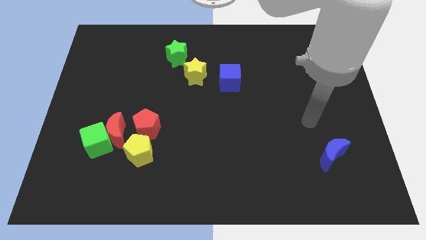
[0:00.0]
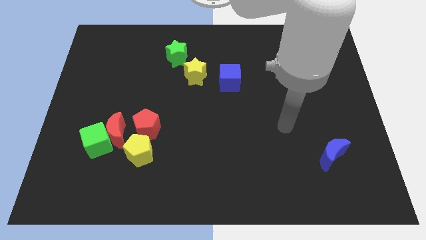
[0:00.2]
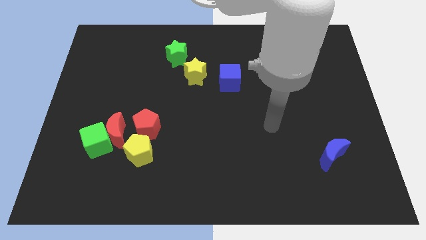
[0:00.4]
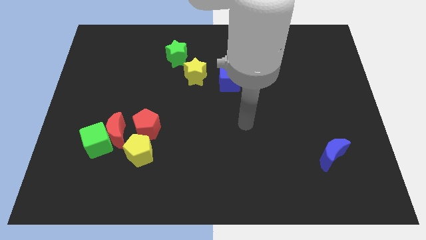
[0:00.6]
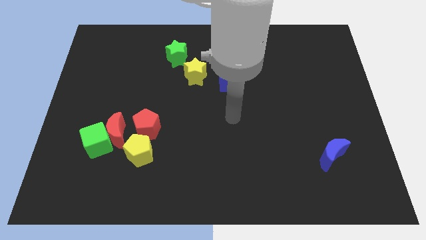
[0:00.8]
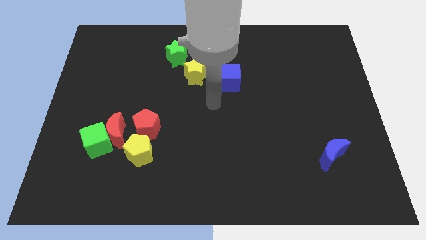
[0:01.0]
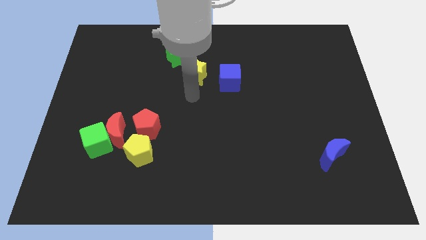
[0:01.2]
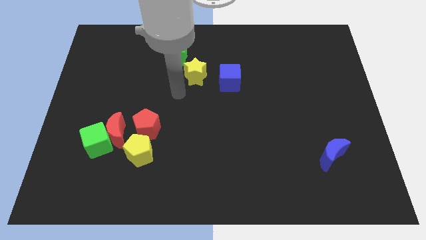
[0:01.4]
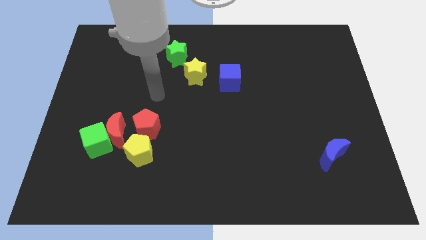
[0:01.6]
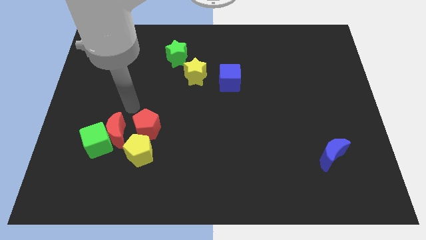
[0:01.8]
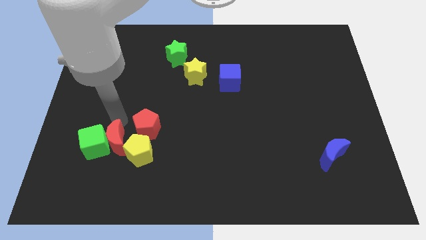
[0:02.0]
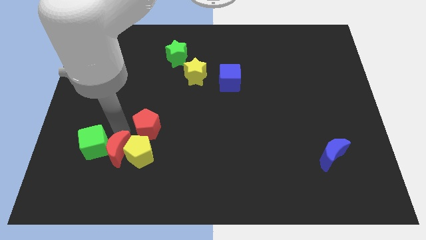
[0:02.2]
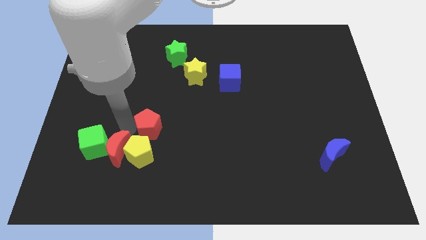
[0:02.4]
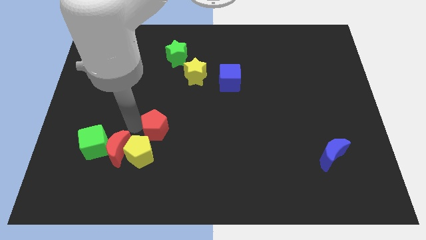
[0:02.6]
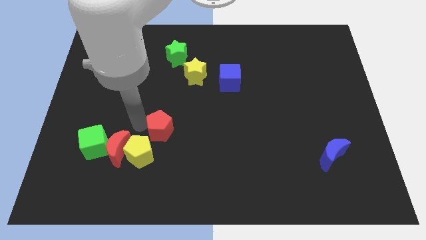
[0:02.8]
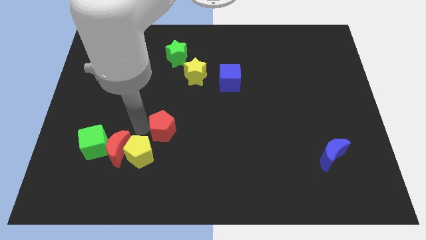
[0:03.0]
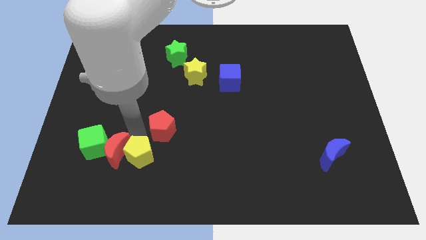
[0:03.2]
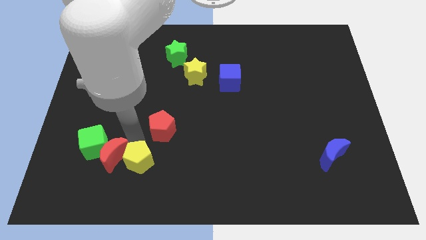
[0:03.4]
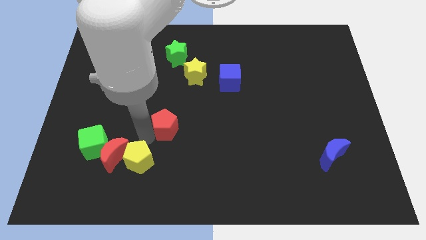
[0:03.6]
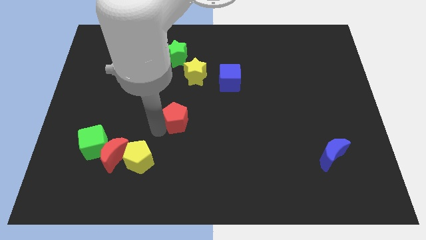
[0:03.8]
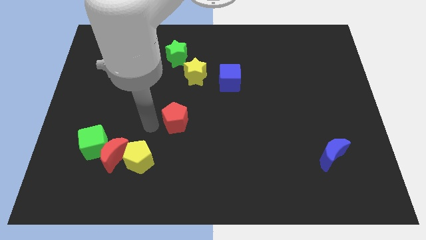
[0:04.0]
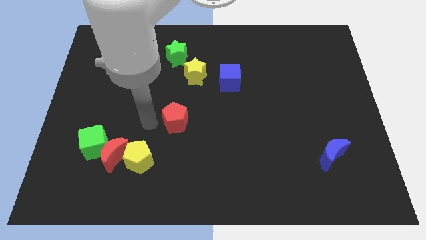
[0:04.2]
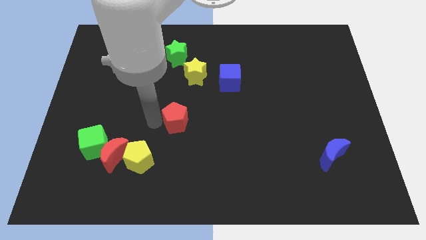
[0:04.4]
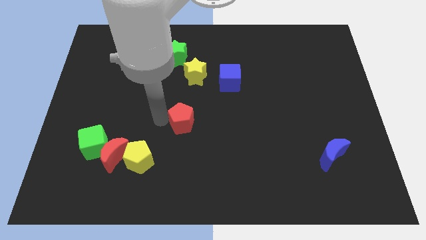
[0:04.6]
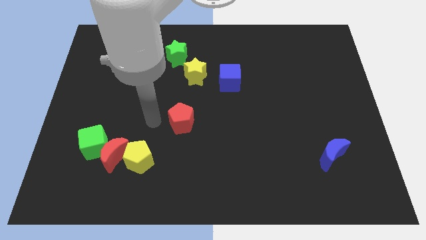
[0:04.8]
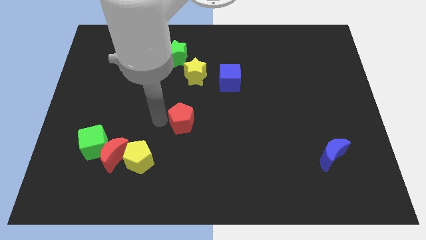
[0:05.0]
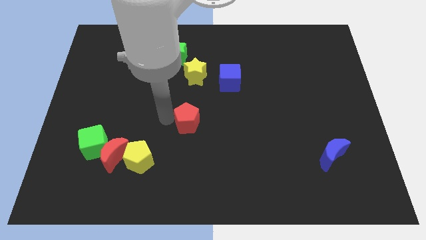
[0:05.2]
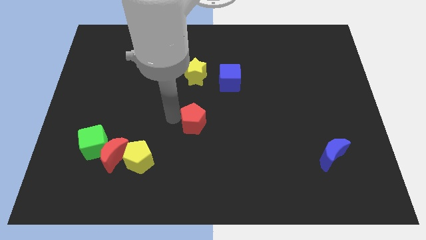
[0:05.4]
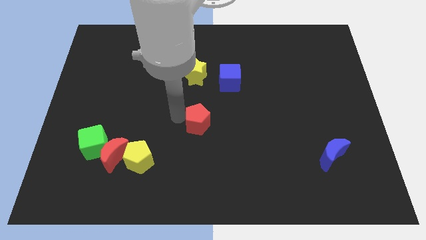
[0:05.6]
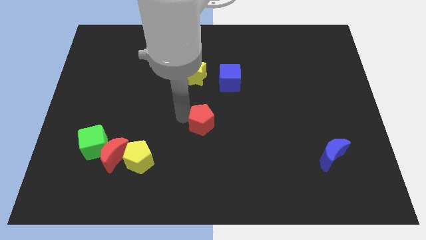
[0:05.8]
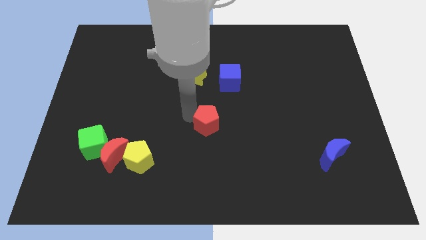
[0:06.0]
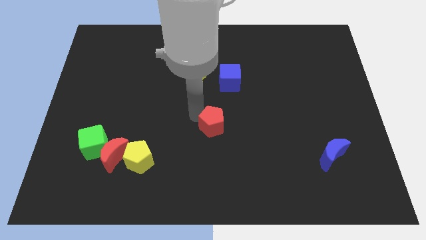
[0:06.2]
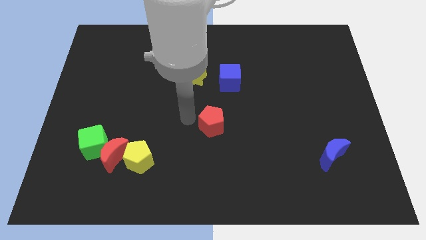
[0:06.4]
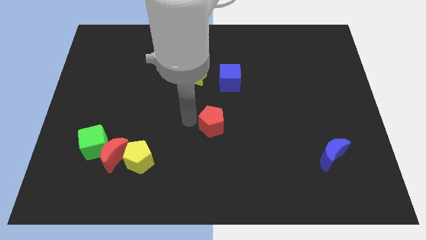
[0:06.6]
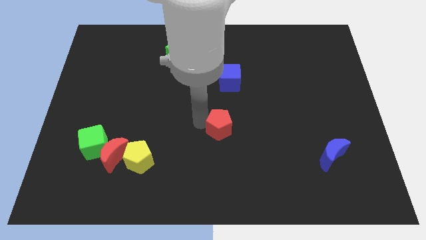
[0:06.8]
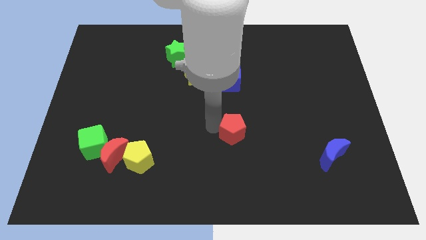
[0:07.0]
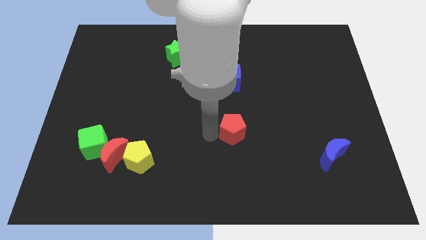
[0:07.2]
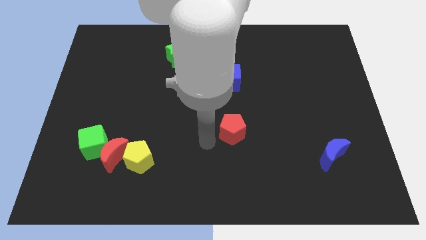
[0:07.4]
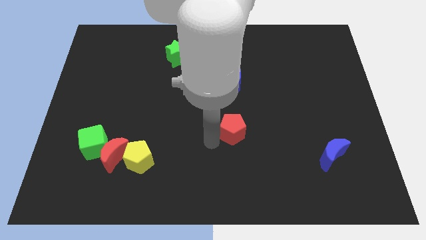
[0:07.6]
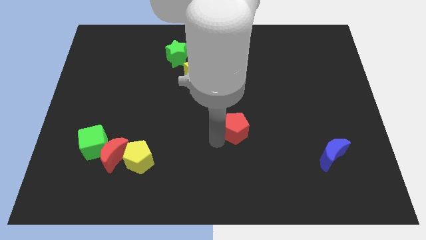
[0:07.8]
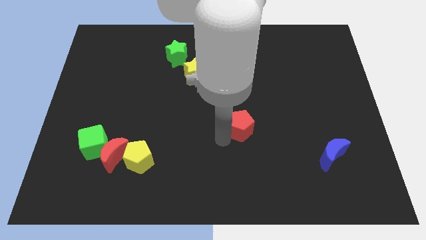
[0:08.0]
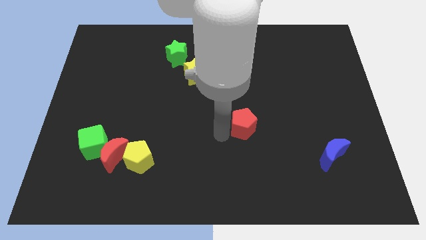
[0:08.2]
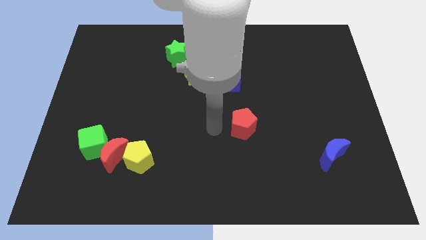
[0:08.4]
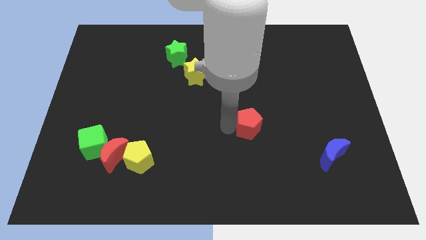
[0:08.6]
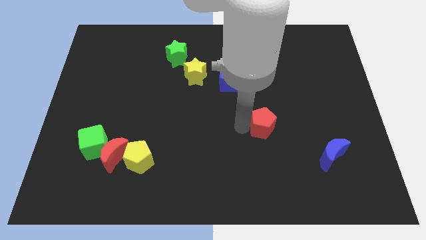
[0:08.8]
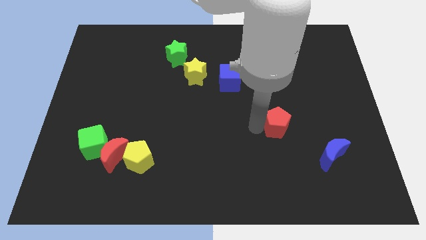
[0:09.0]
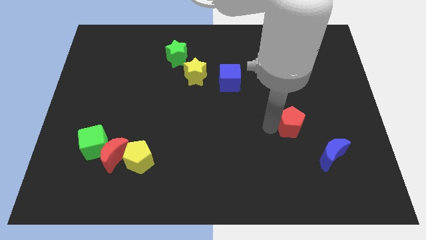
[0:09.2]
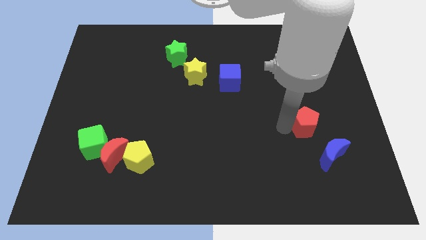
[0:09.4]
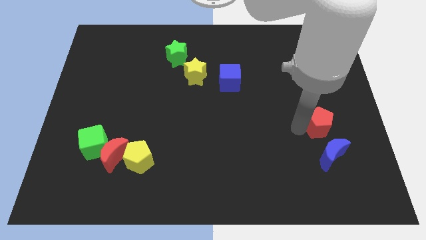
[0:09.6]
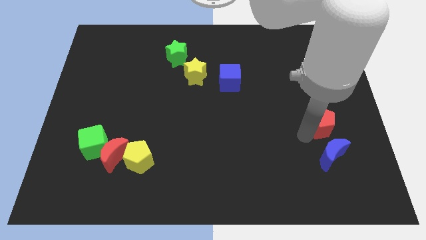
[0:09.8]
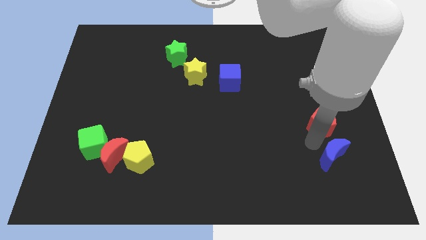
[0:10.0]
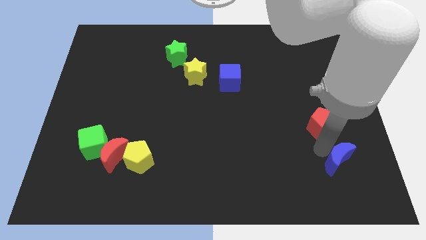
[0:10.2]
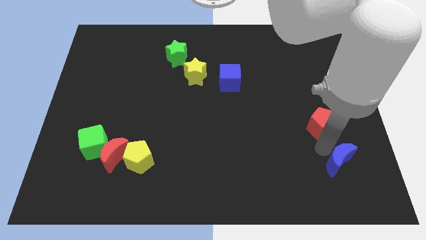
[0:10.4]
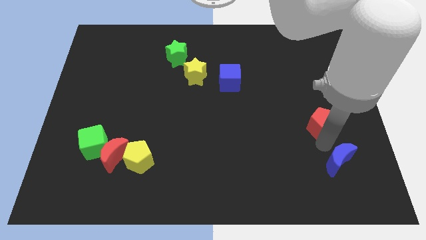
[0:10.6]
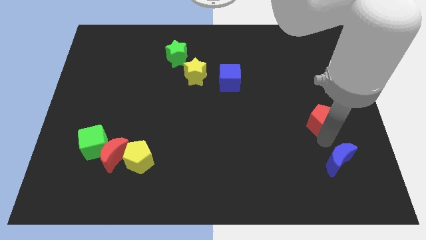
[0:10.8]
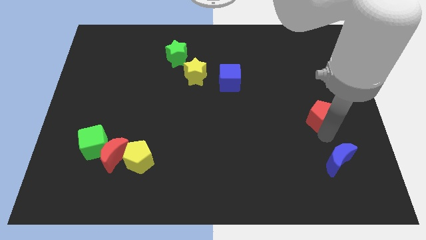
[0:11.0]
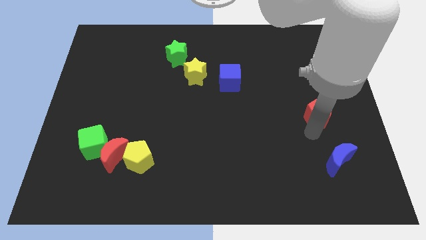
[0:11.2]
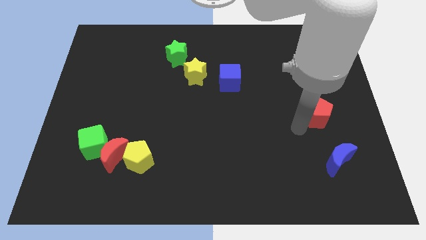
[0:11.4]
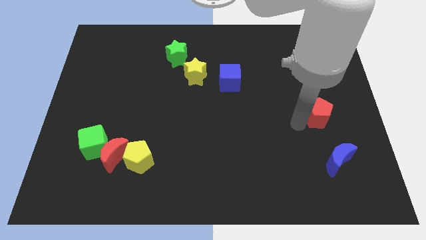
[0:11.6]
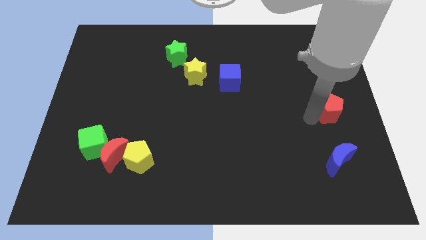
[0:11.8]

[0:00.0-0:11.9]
move the red pentagon to the center right
